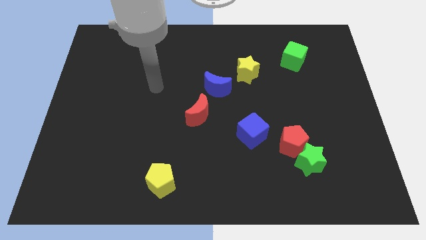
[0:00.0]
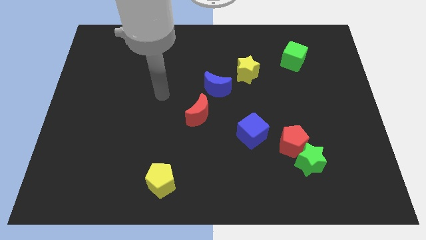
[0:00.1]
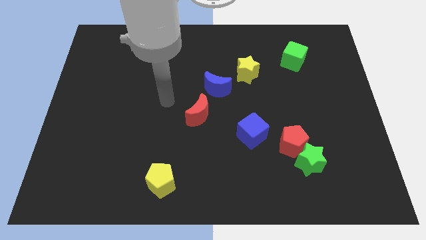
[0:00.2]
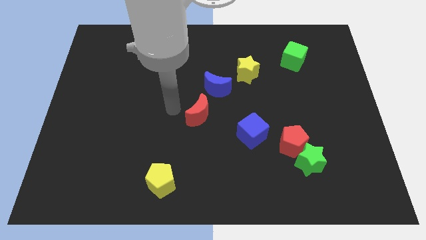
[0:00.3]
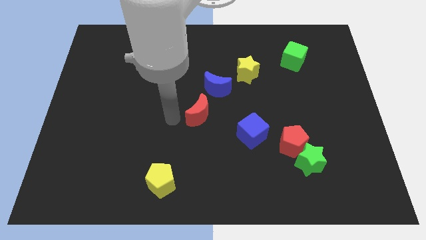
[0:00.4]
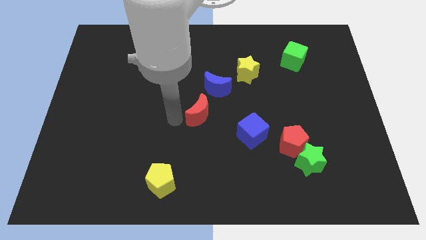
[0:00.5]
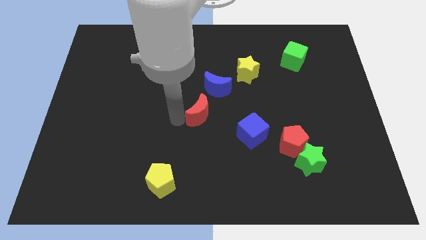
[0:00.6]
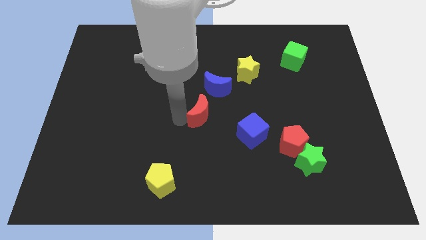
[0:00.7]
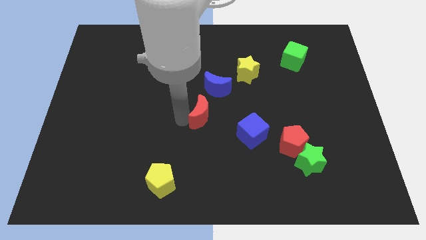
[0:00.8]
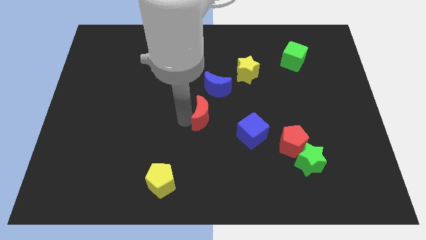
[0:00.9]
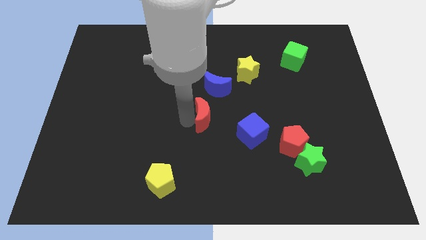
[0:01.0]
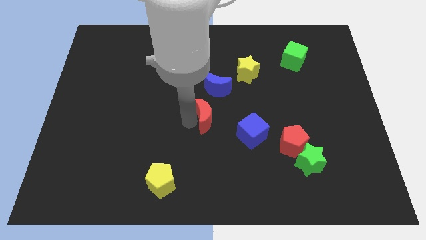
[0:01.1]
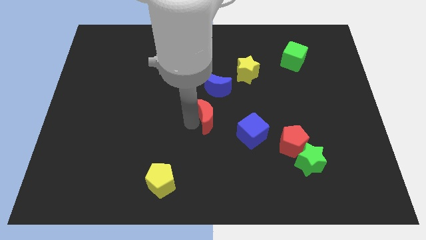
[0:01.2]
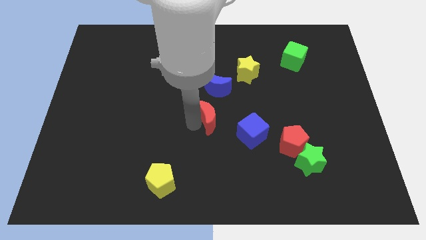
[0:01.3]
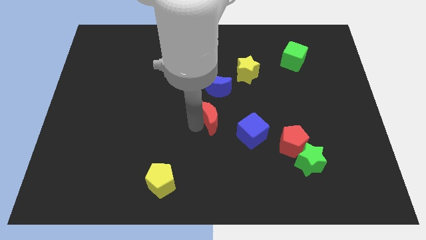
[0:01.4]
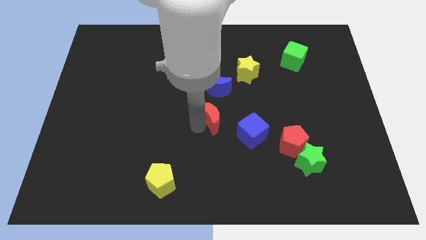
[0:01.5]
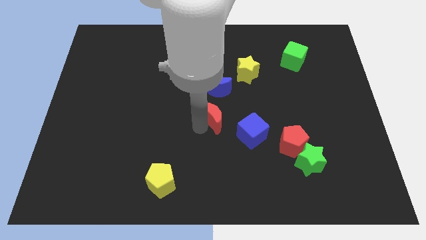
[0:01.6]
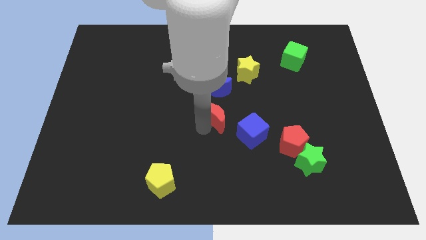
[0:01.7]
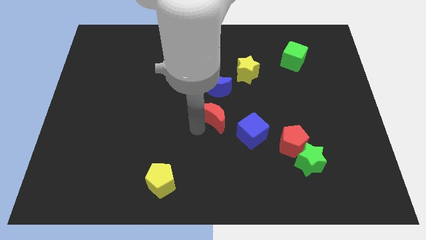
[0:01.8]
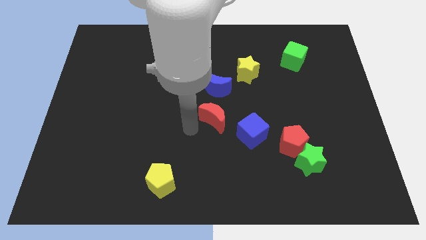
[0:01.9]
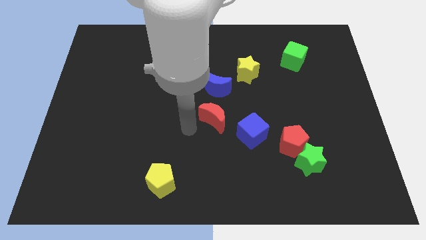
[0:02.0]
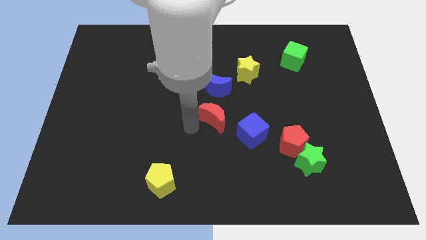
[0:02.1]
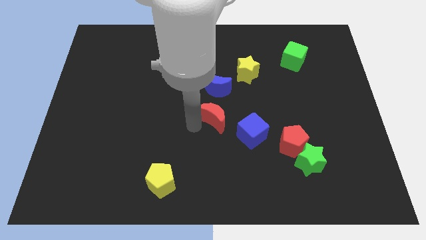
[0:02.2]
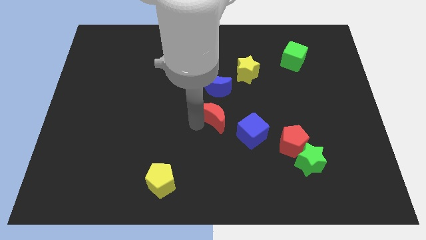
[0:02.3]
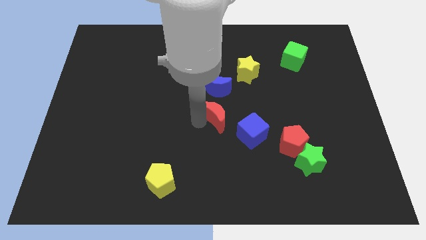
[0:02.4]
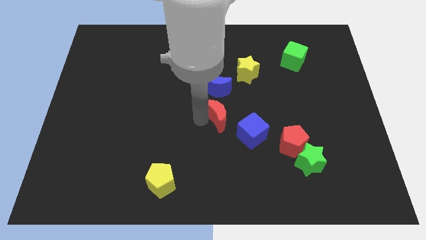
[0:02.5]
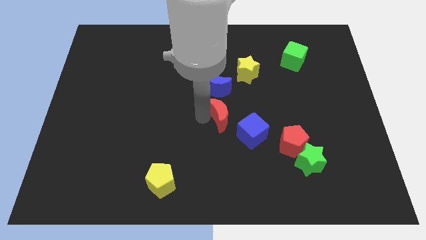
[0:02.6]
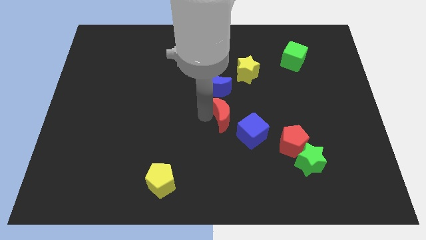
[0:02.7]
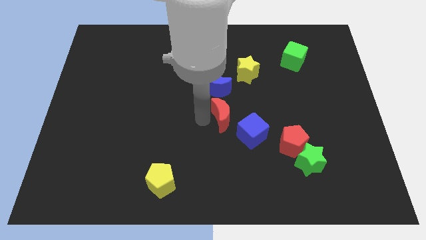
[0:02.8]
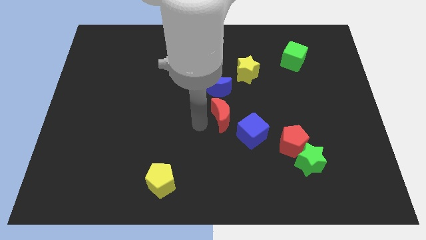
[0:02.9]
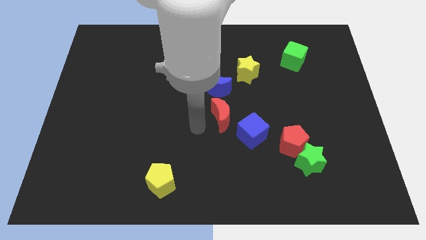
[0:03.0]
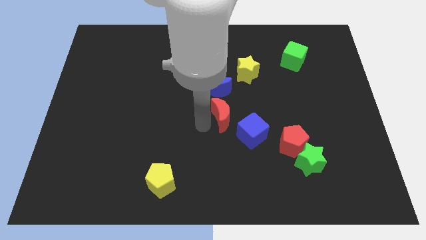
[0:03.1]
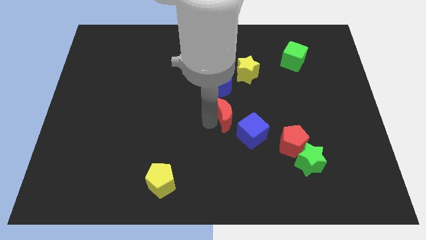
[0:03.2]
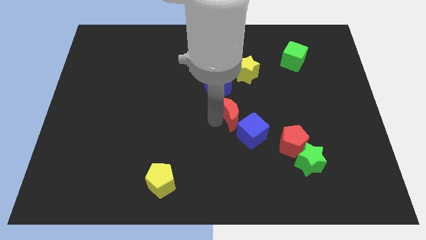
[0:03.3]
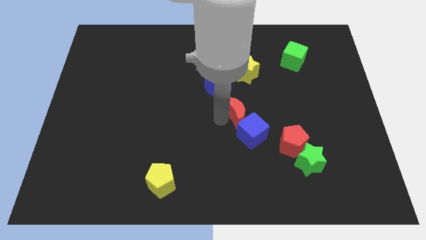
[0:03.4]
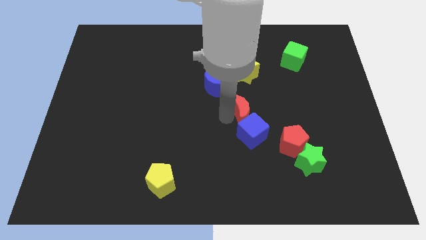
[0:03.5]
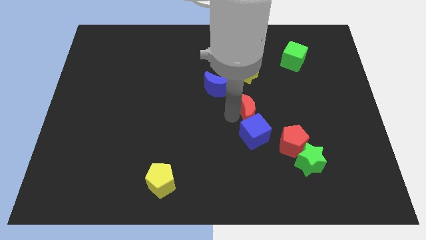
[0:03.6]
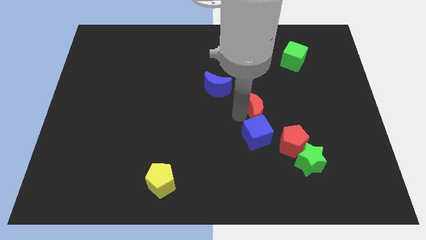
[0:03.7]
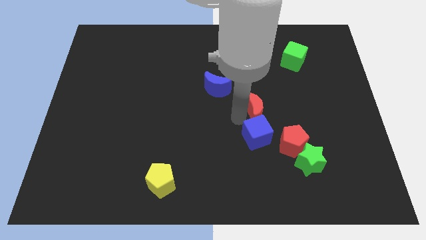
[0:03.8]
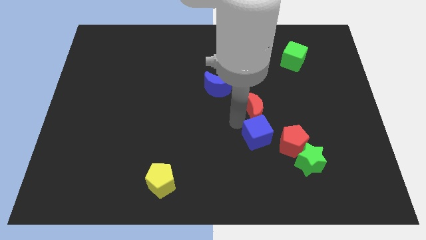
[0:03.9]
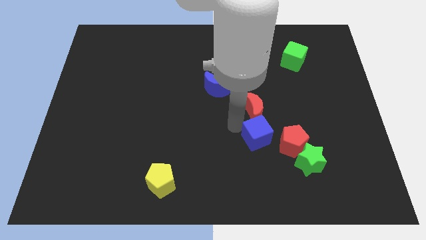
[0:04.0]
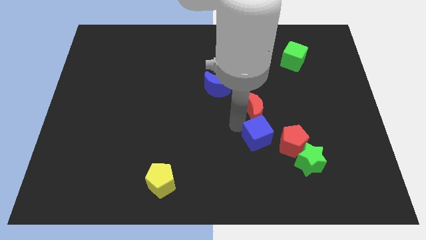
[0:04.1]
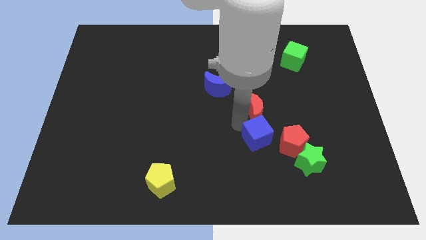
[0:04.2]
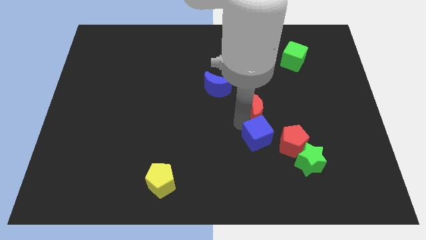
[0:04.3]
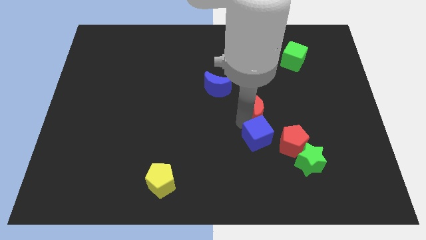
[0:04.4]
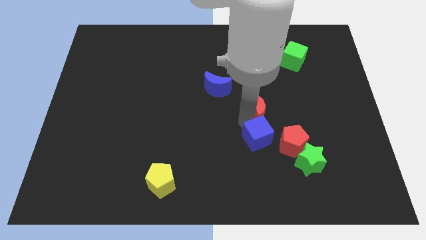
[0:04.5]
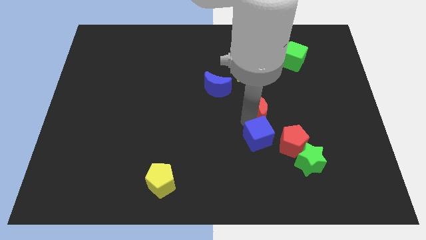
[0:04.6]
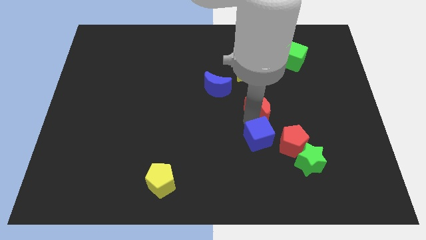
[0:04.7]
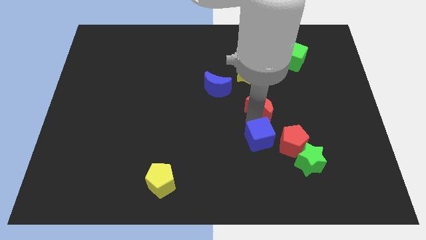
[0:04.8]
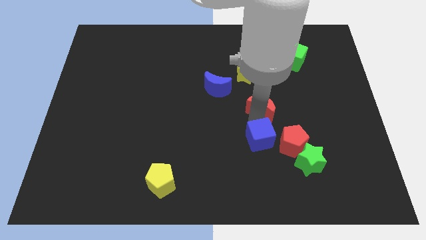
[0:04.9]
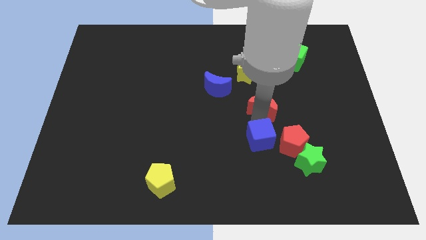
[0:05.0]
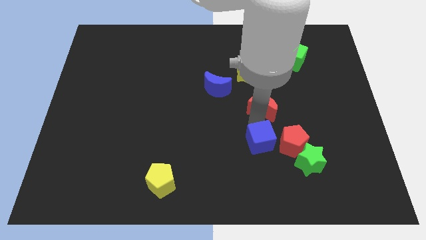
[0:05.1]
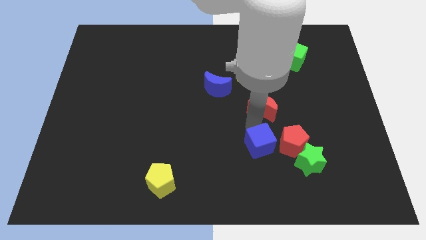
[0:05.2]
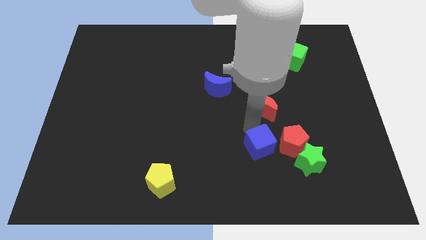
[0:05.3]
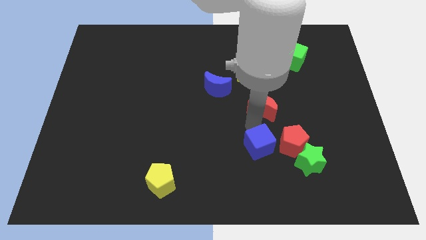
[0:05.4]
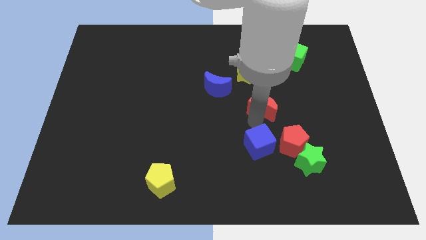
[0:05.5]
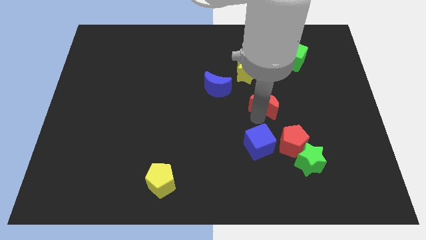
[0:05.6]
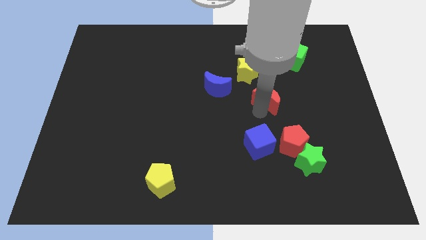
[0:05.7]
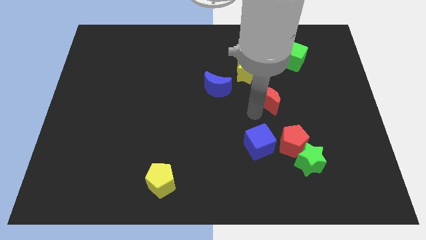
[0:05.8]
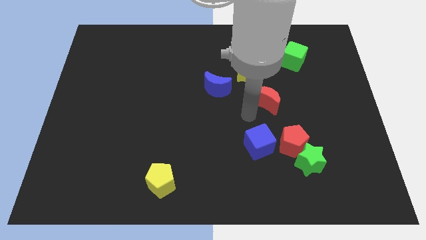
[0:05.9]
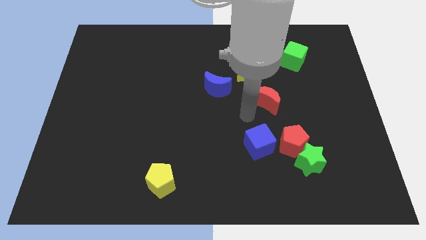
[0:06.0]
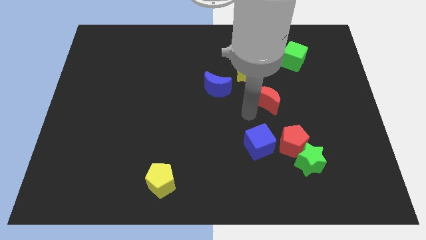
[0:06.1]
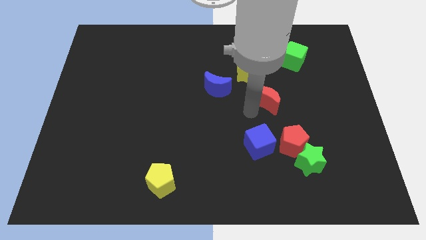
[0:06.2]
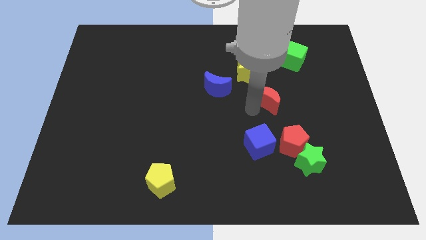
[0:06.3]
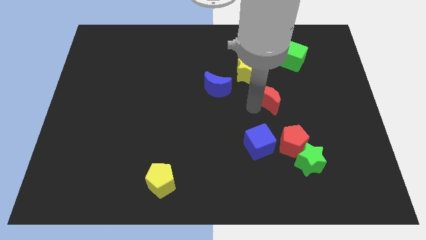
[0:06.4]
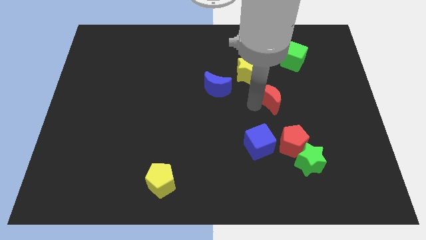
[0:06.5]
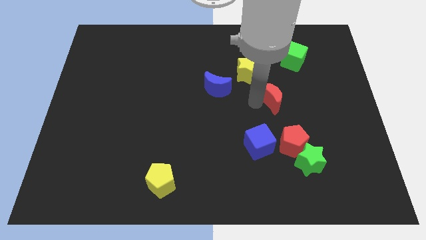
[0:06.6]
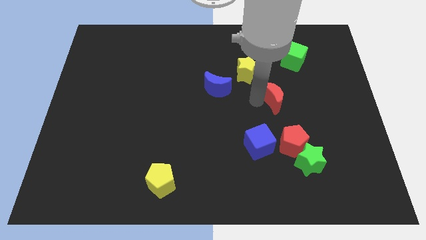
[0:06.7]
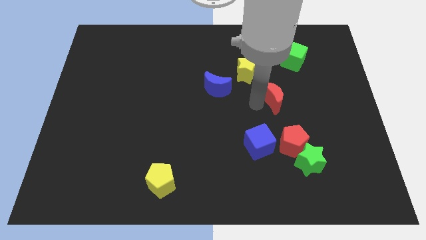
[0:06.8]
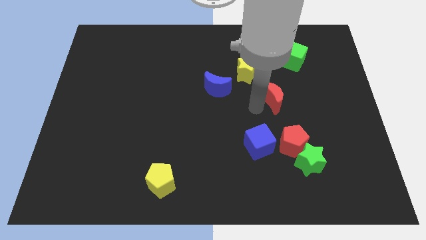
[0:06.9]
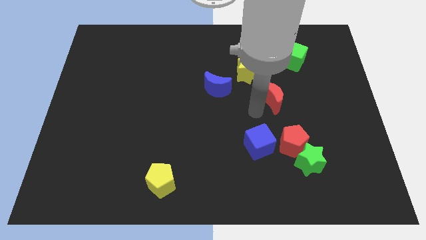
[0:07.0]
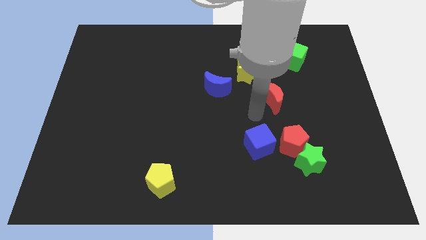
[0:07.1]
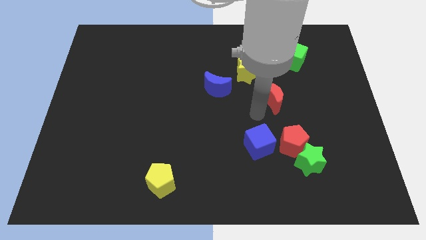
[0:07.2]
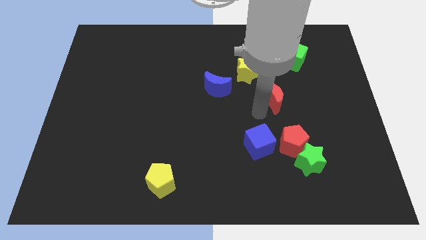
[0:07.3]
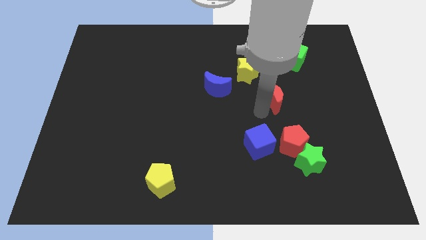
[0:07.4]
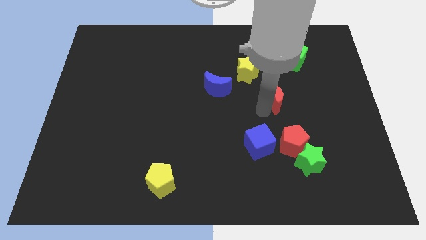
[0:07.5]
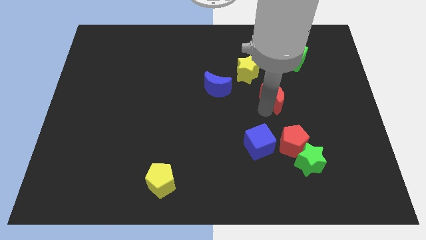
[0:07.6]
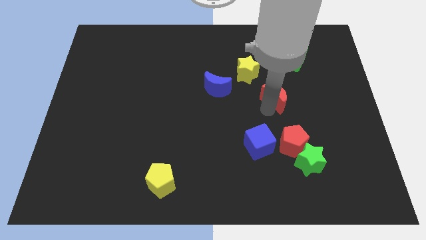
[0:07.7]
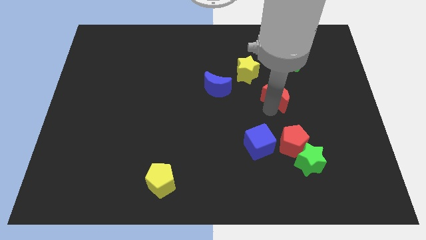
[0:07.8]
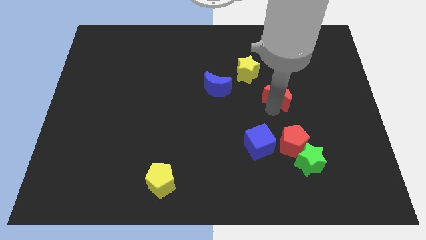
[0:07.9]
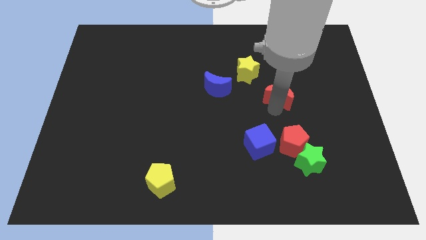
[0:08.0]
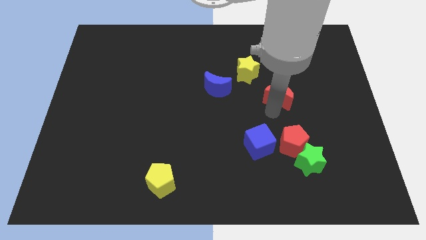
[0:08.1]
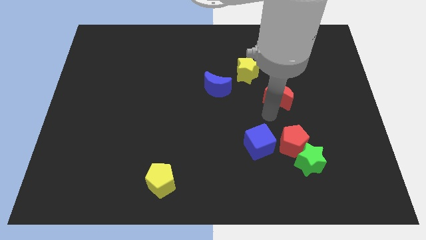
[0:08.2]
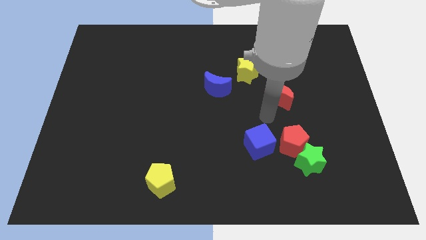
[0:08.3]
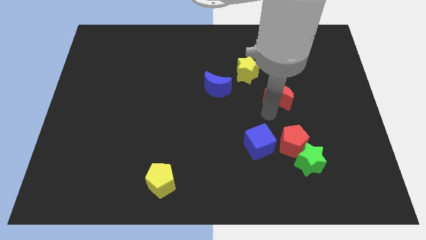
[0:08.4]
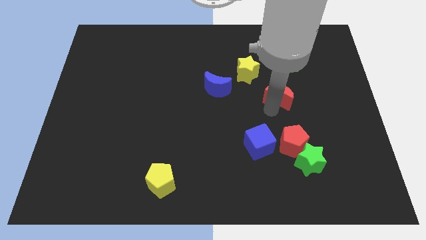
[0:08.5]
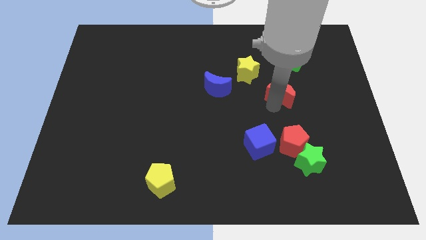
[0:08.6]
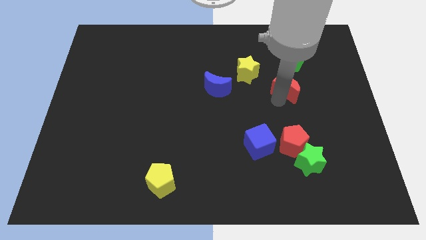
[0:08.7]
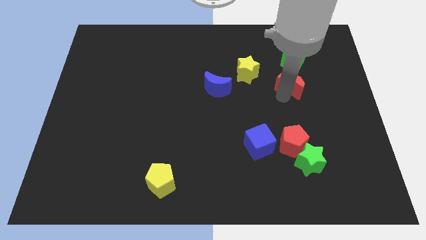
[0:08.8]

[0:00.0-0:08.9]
slide the red moon just right of the yellow star
